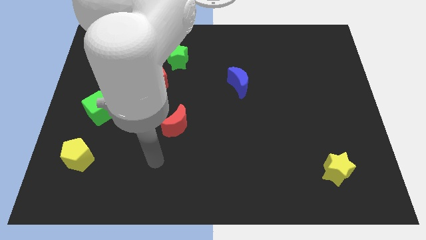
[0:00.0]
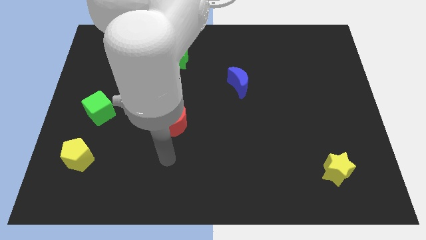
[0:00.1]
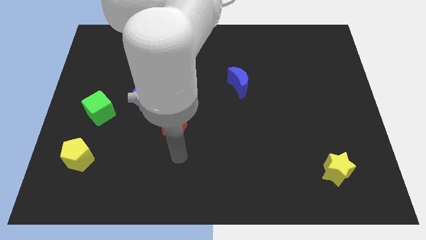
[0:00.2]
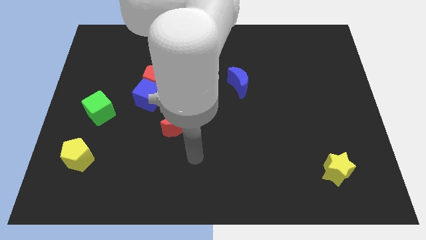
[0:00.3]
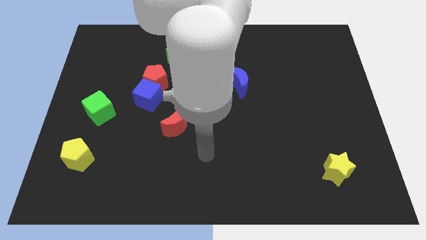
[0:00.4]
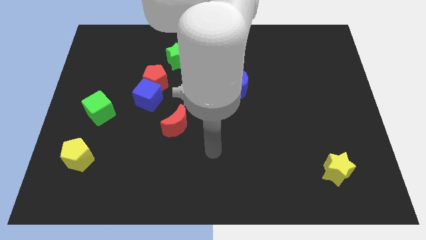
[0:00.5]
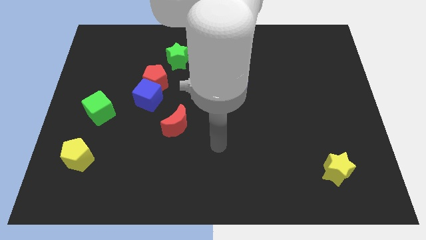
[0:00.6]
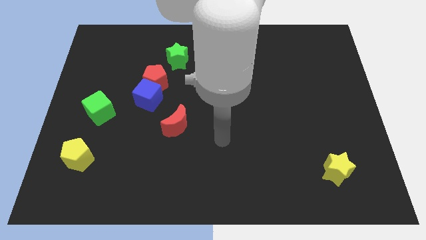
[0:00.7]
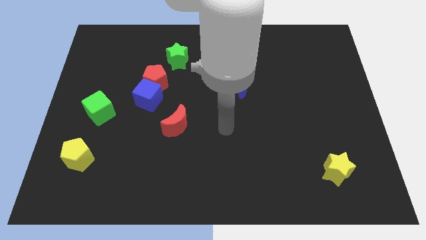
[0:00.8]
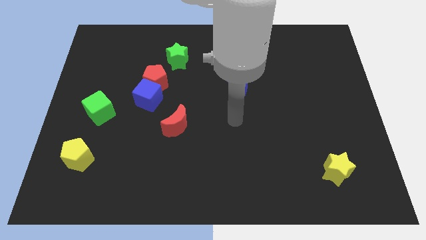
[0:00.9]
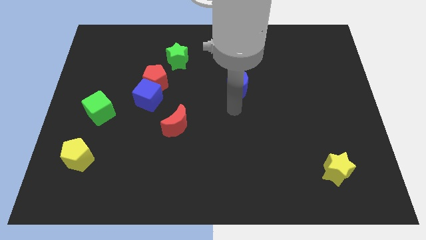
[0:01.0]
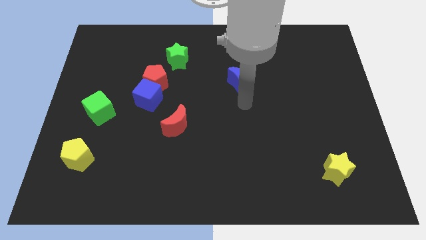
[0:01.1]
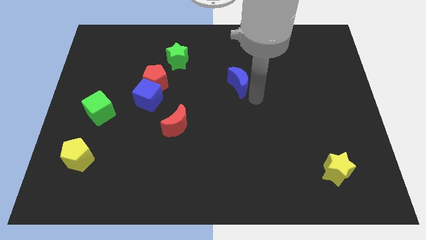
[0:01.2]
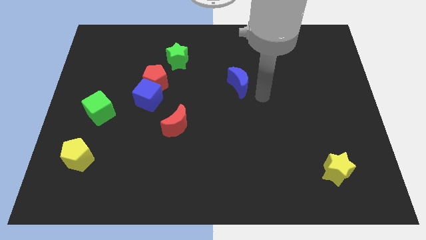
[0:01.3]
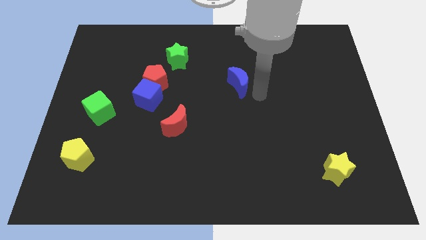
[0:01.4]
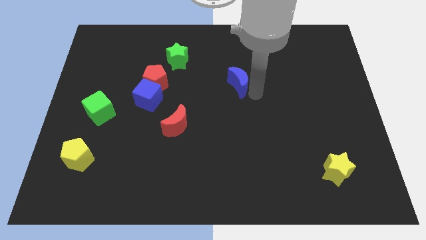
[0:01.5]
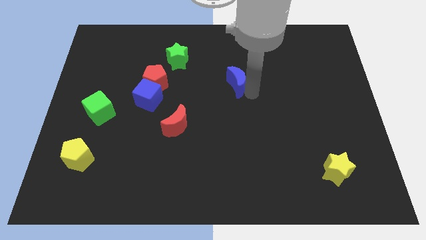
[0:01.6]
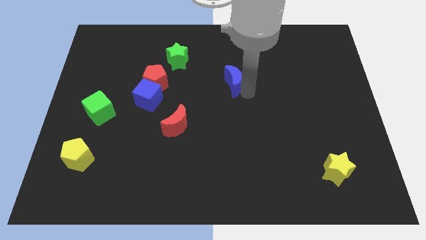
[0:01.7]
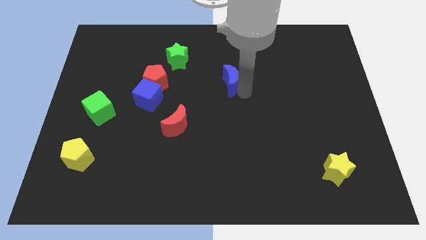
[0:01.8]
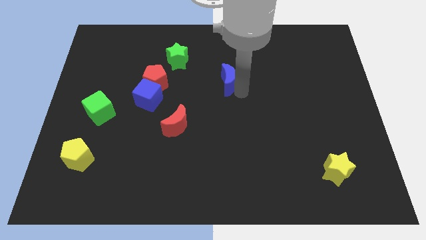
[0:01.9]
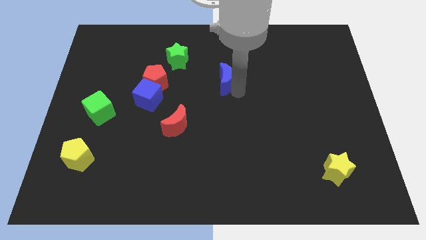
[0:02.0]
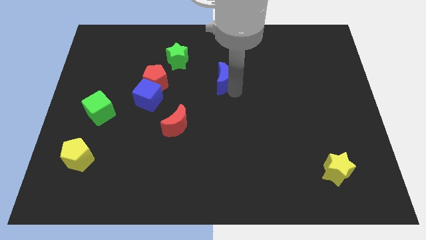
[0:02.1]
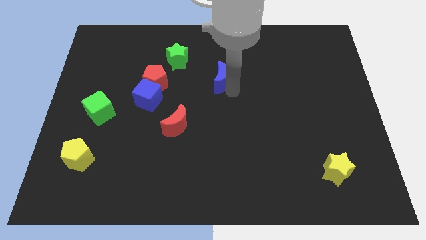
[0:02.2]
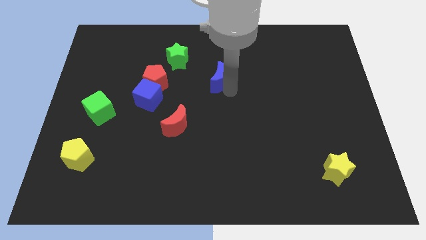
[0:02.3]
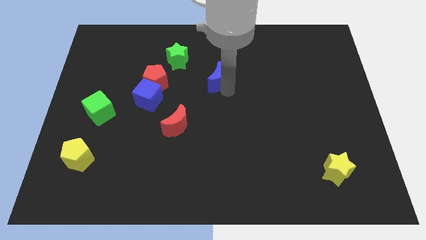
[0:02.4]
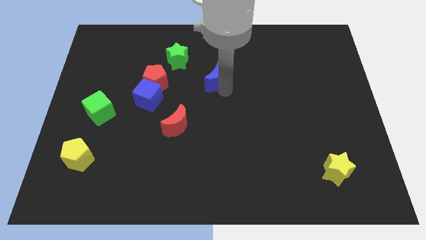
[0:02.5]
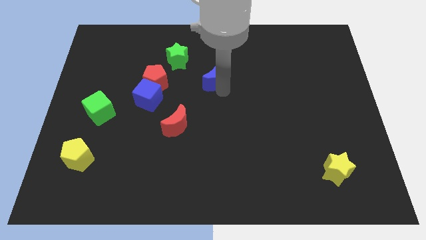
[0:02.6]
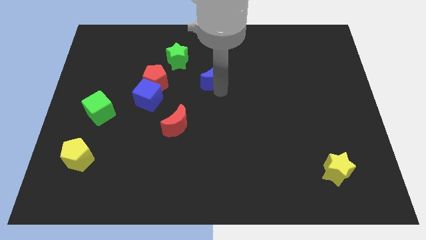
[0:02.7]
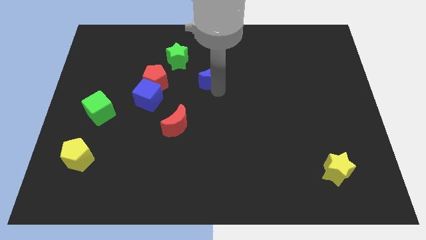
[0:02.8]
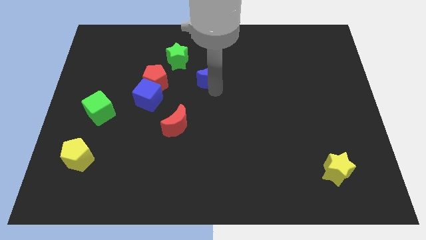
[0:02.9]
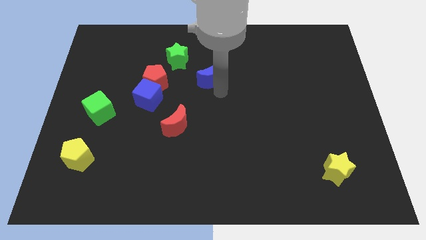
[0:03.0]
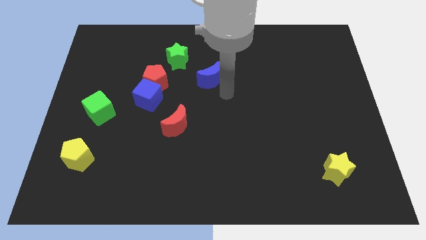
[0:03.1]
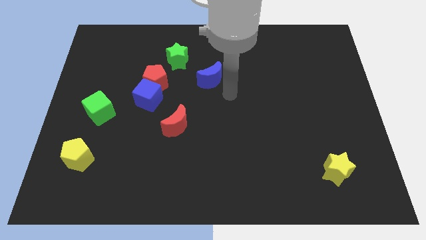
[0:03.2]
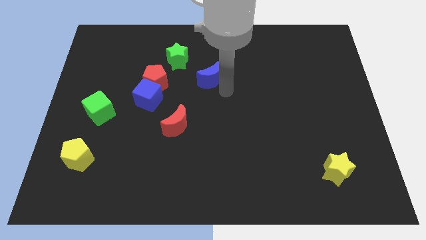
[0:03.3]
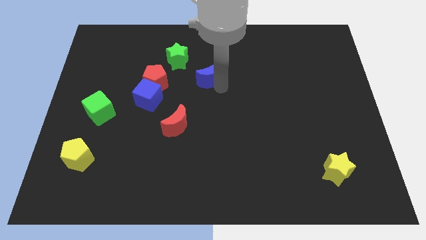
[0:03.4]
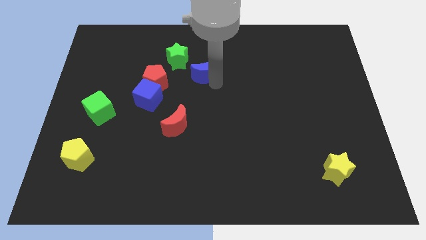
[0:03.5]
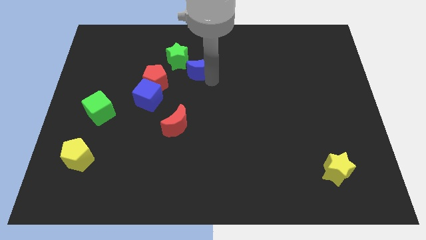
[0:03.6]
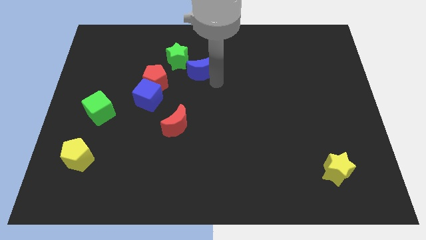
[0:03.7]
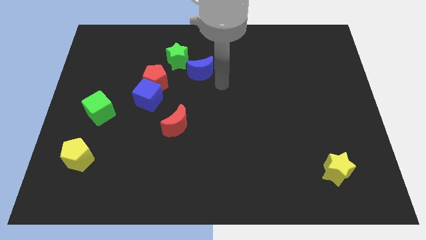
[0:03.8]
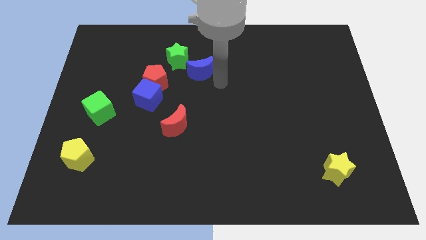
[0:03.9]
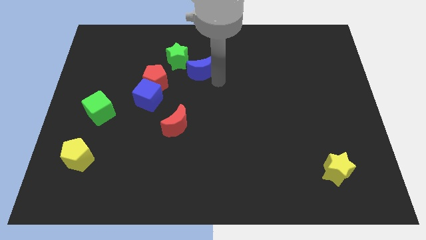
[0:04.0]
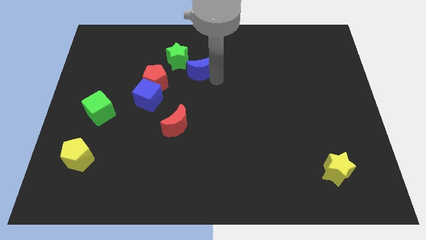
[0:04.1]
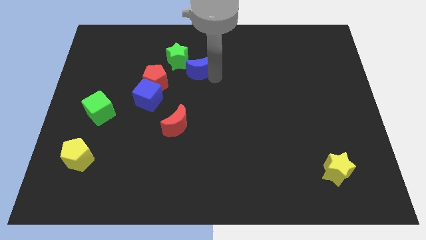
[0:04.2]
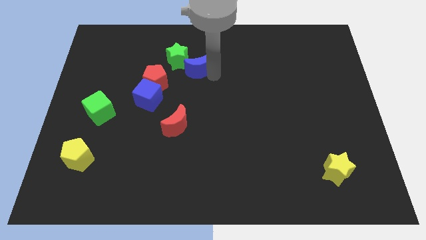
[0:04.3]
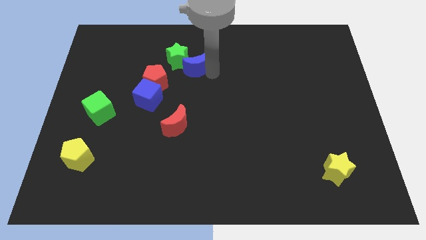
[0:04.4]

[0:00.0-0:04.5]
put the blue moon towards the green star

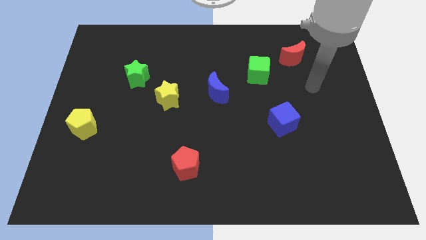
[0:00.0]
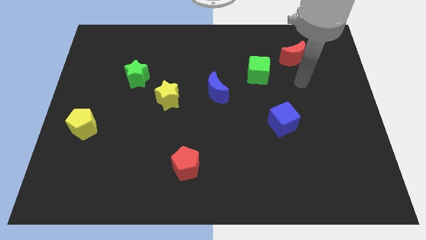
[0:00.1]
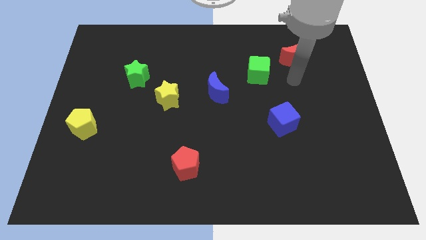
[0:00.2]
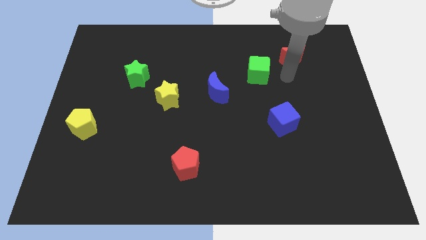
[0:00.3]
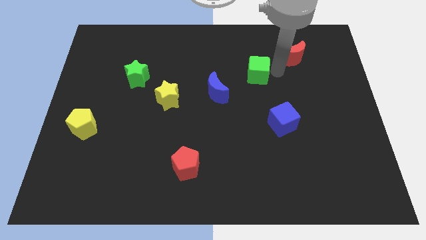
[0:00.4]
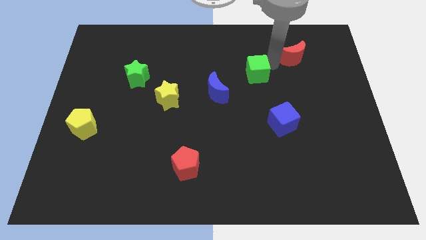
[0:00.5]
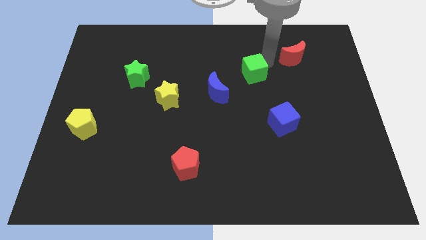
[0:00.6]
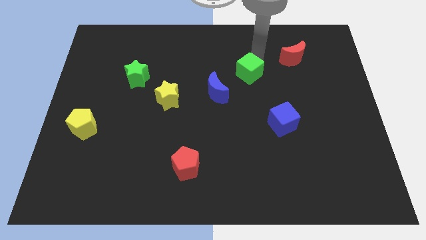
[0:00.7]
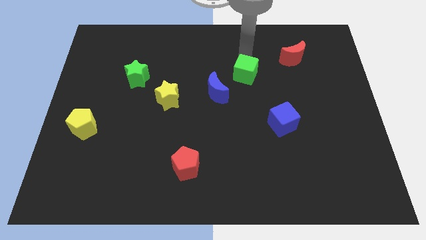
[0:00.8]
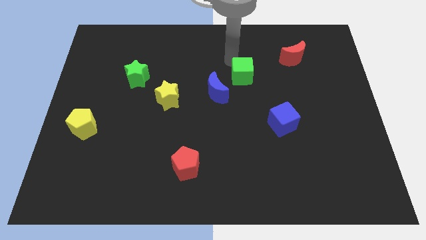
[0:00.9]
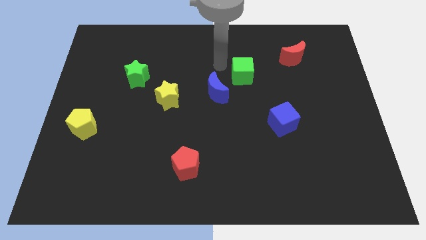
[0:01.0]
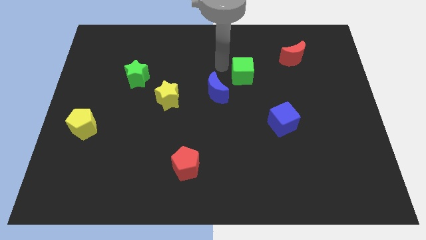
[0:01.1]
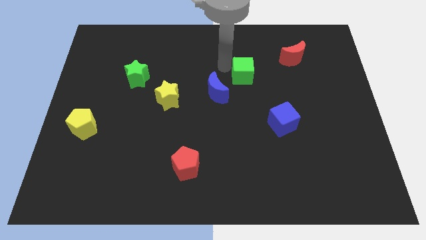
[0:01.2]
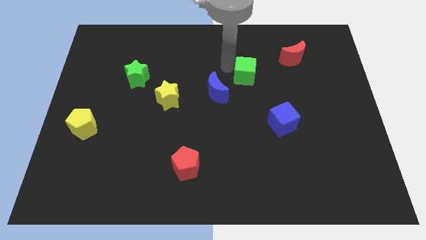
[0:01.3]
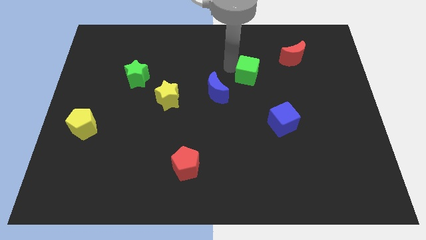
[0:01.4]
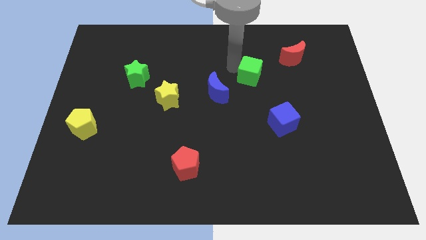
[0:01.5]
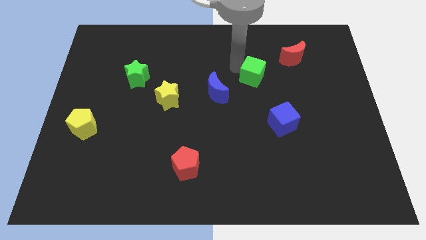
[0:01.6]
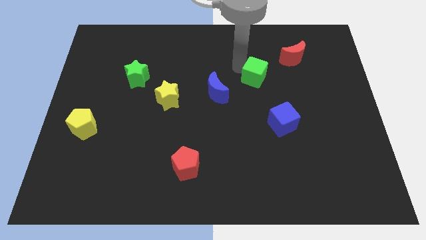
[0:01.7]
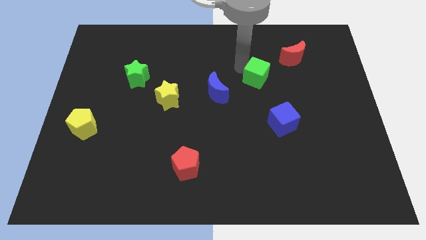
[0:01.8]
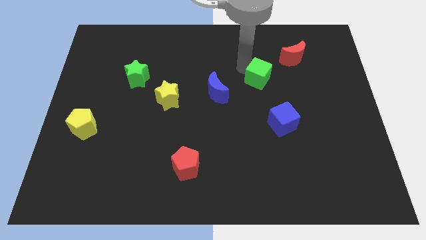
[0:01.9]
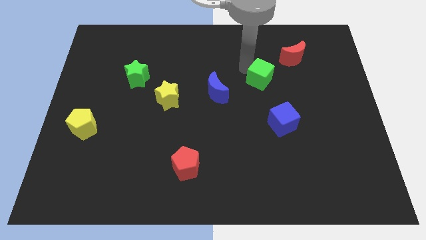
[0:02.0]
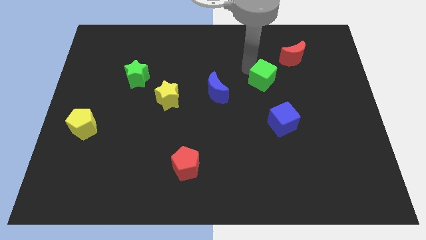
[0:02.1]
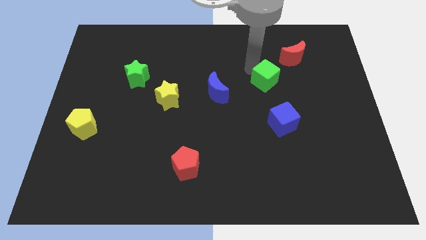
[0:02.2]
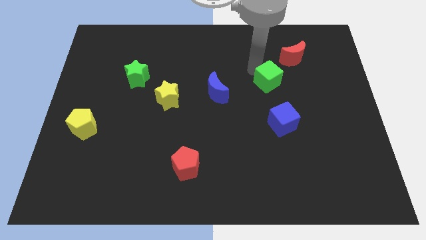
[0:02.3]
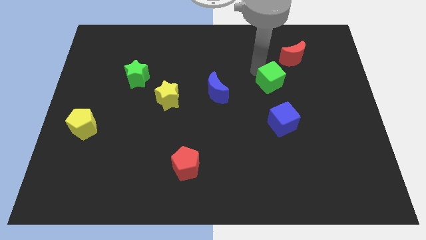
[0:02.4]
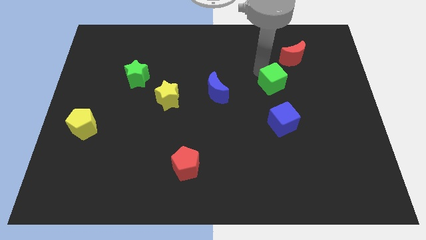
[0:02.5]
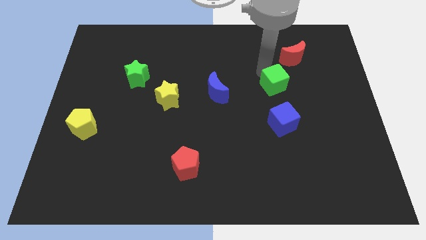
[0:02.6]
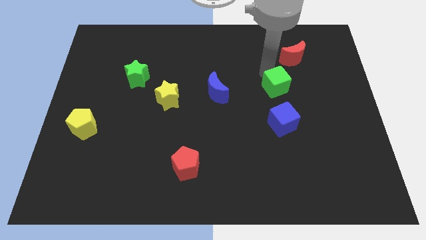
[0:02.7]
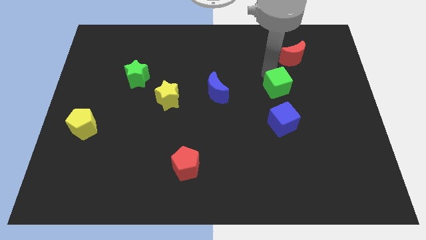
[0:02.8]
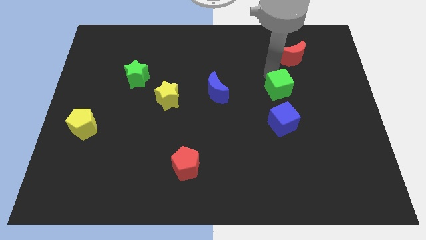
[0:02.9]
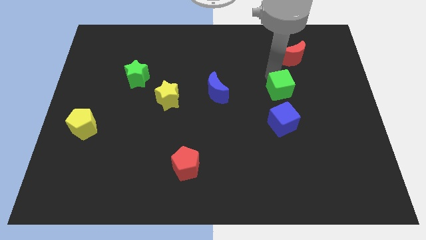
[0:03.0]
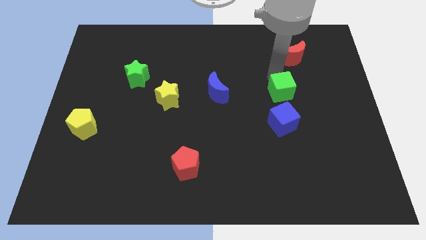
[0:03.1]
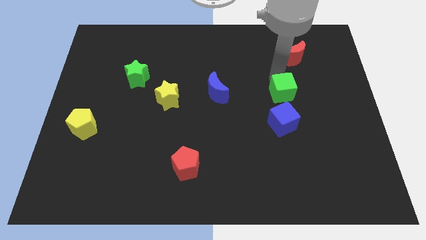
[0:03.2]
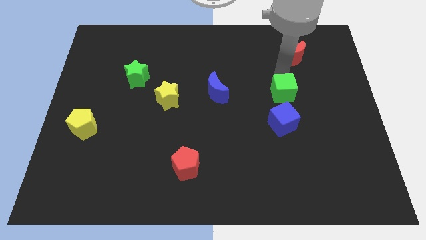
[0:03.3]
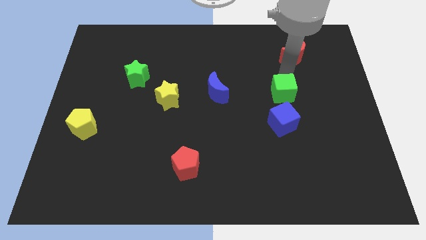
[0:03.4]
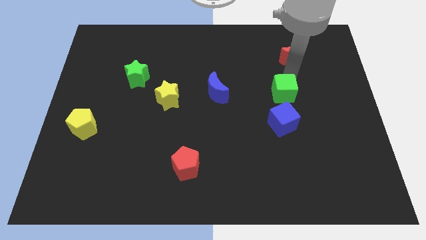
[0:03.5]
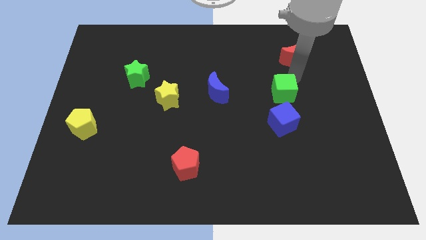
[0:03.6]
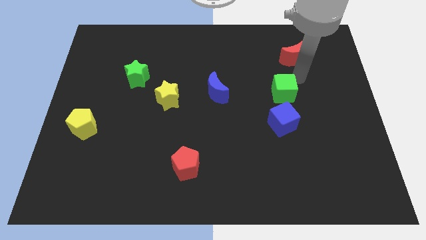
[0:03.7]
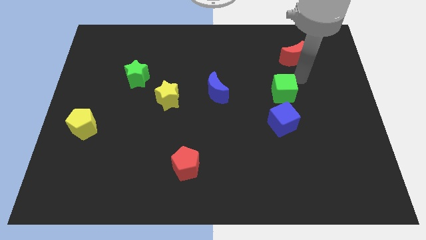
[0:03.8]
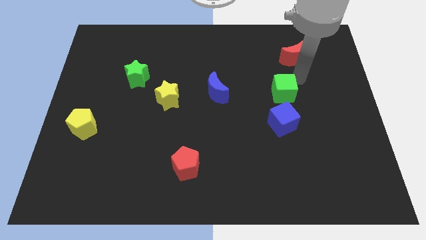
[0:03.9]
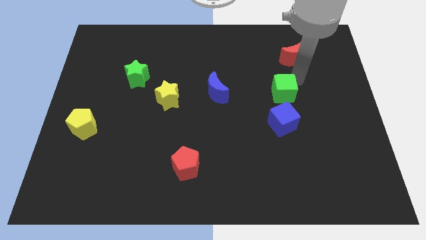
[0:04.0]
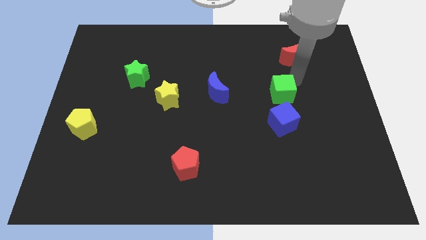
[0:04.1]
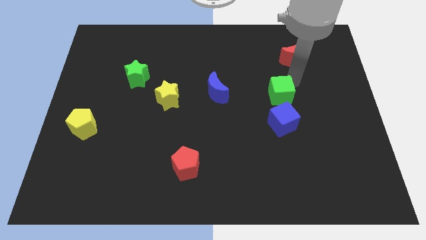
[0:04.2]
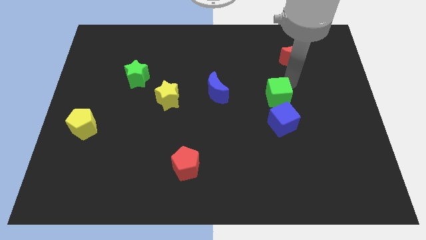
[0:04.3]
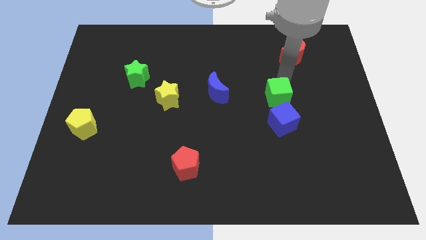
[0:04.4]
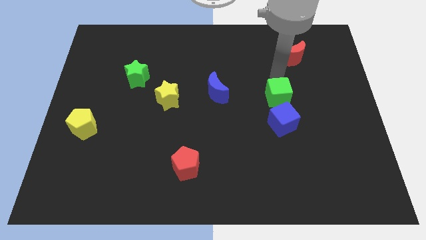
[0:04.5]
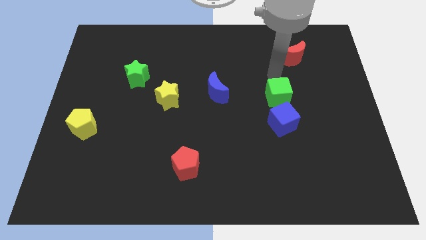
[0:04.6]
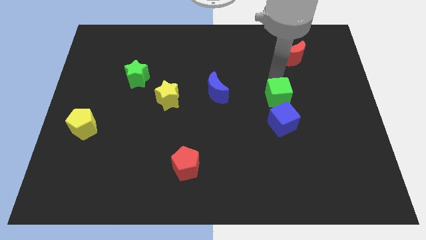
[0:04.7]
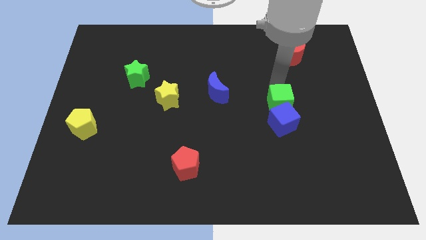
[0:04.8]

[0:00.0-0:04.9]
slide the green cube towards the blue cube
